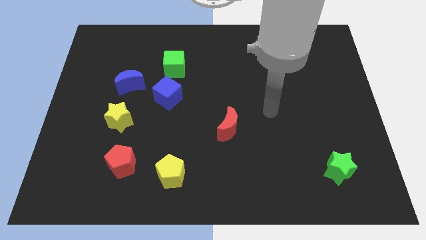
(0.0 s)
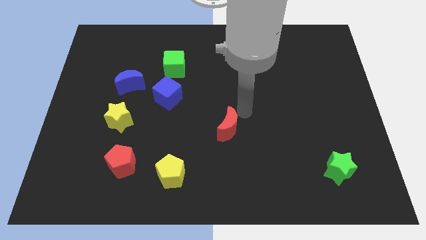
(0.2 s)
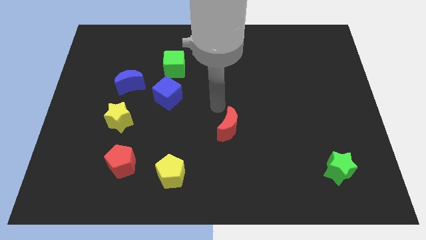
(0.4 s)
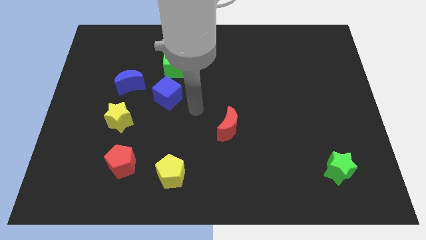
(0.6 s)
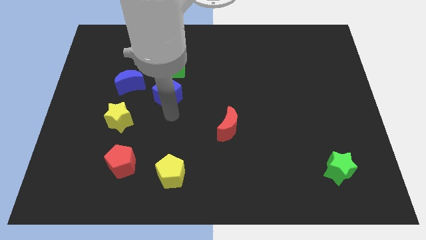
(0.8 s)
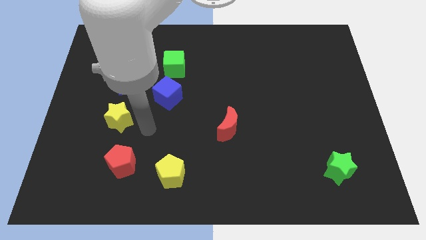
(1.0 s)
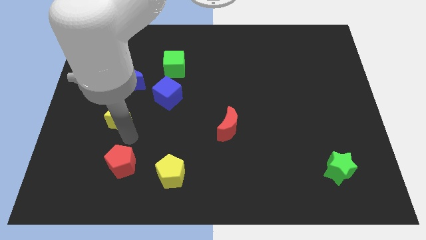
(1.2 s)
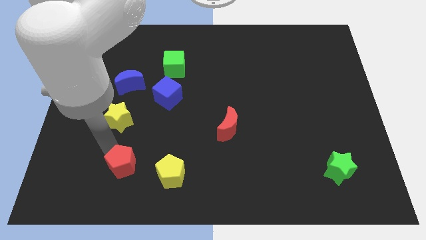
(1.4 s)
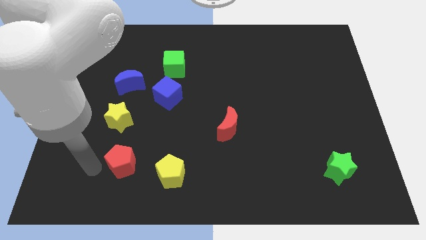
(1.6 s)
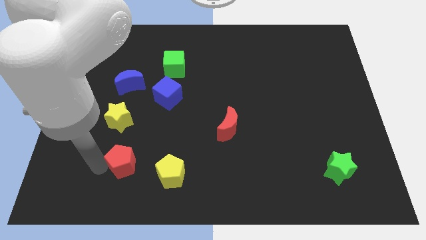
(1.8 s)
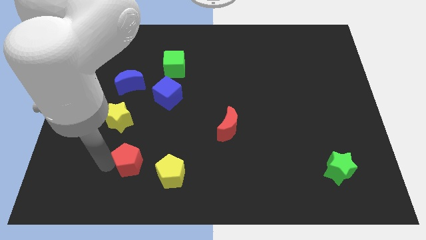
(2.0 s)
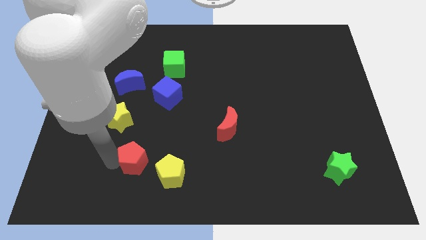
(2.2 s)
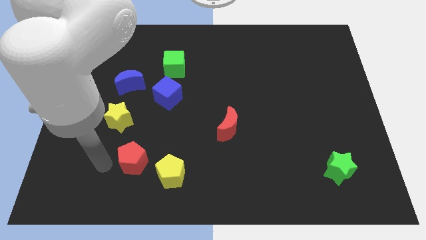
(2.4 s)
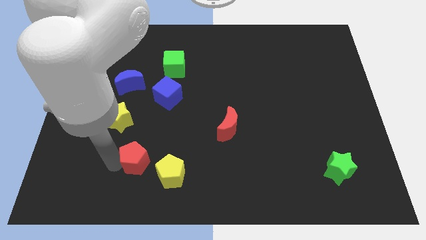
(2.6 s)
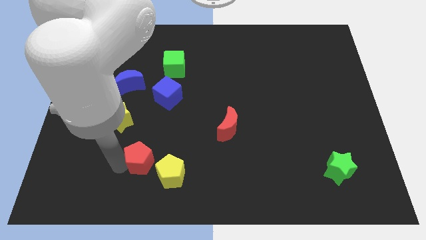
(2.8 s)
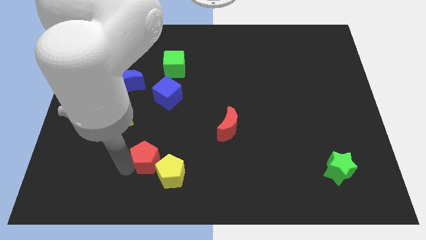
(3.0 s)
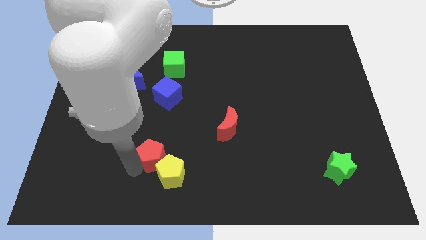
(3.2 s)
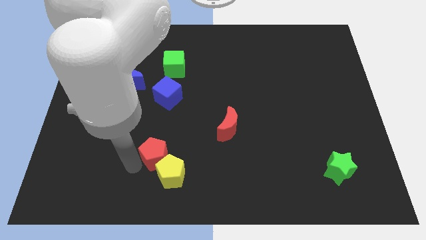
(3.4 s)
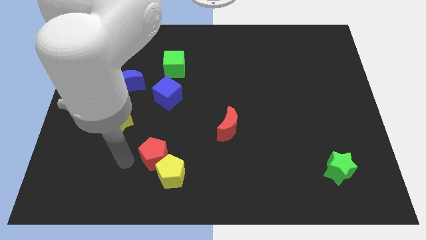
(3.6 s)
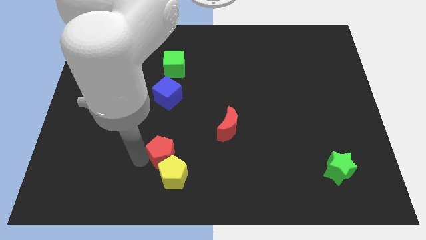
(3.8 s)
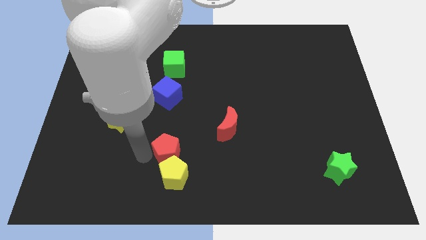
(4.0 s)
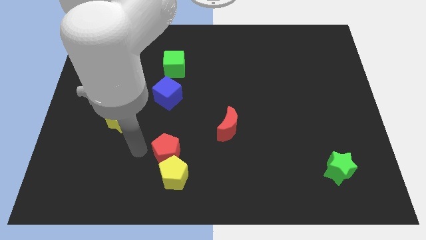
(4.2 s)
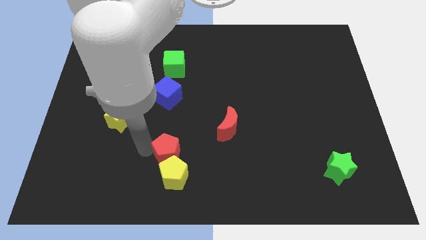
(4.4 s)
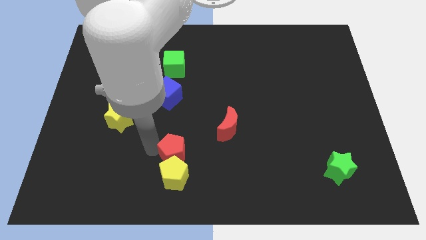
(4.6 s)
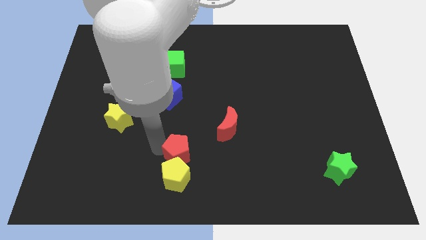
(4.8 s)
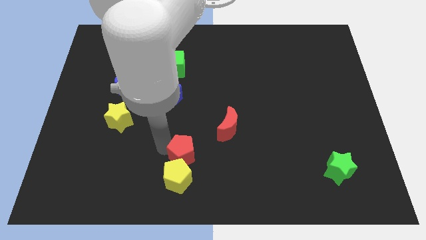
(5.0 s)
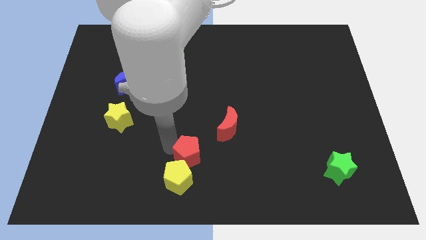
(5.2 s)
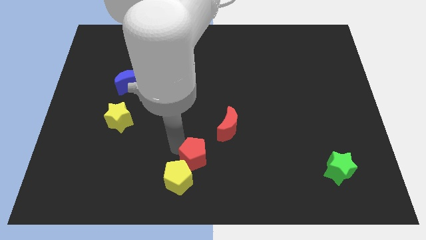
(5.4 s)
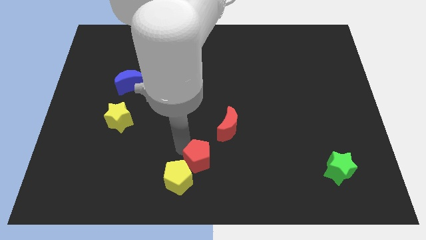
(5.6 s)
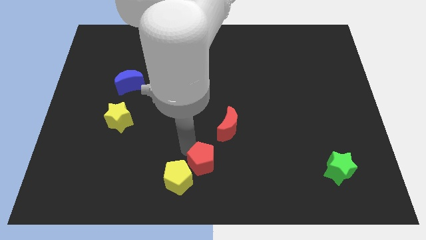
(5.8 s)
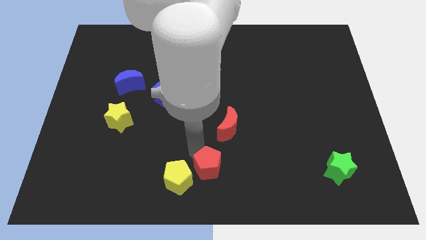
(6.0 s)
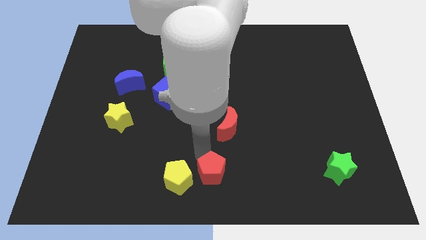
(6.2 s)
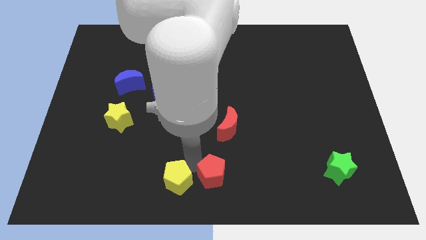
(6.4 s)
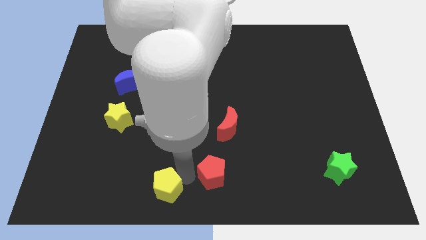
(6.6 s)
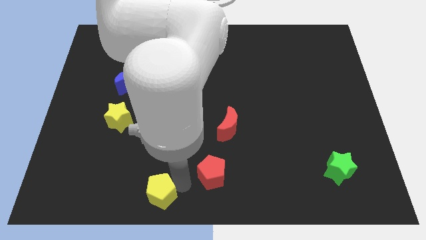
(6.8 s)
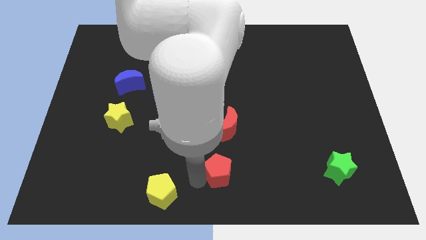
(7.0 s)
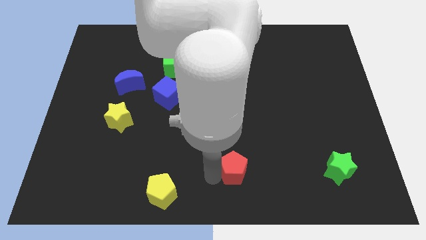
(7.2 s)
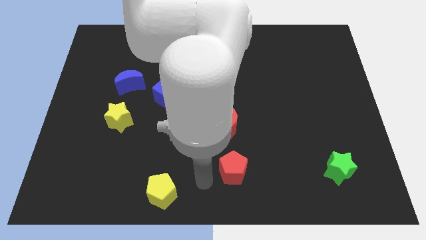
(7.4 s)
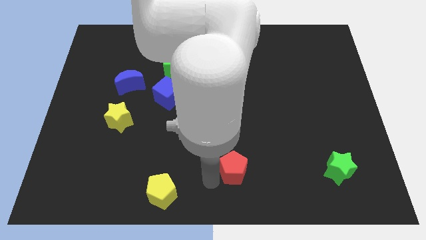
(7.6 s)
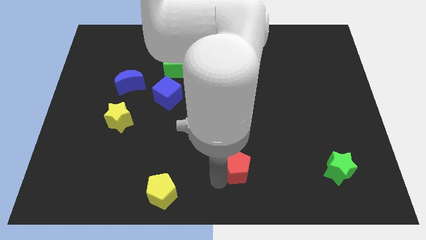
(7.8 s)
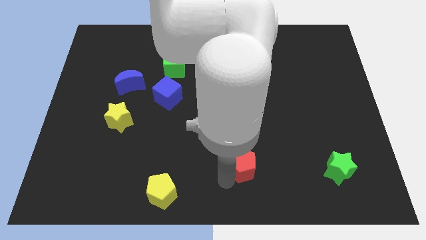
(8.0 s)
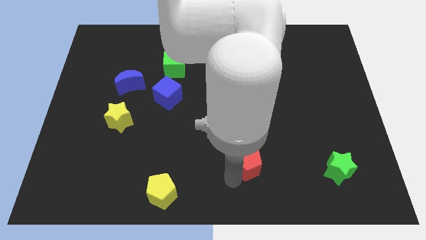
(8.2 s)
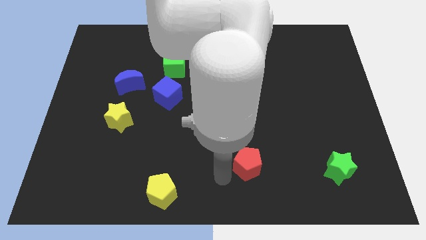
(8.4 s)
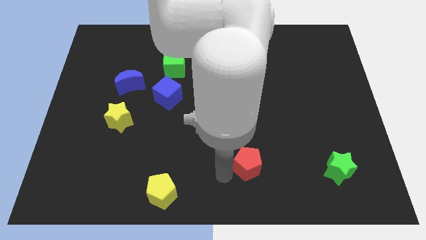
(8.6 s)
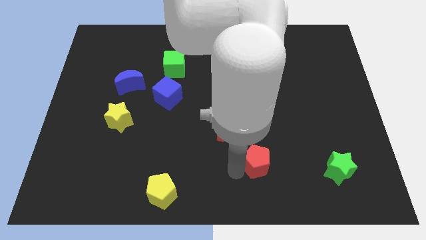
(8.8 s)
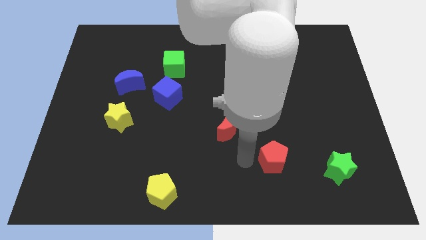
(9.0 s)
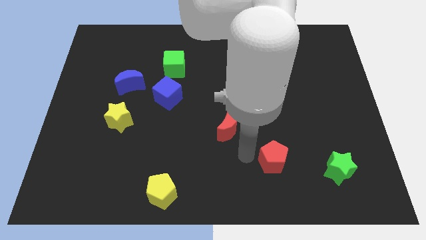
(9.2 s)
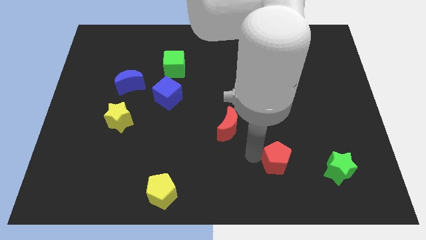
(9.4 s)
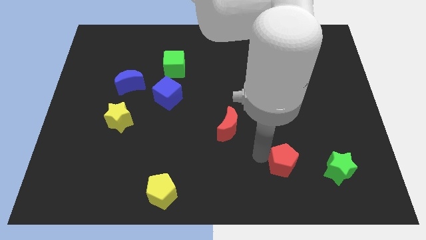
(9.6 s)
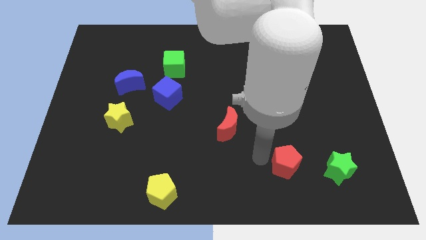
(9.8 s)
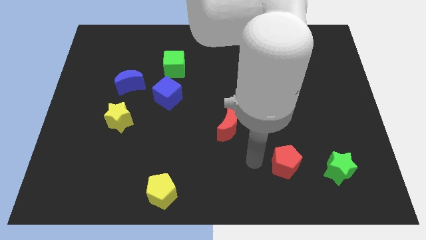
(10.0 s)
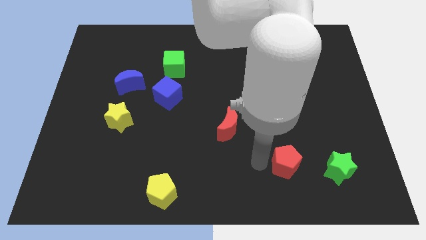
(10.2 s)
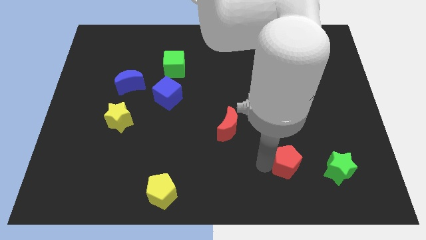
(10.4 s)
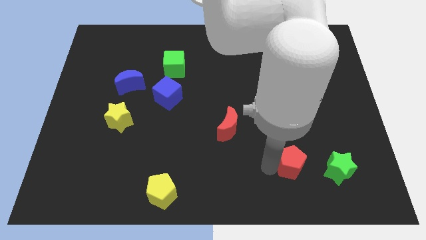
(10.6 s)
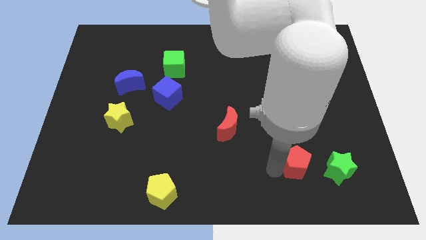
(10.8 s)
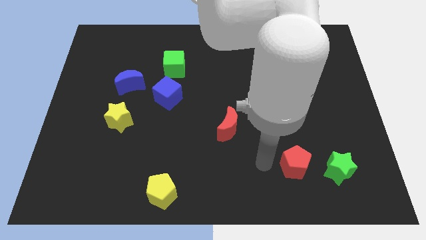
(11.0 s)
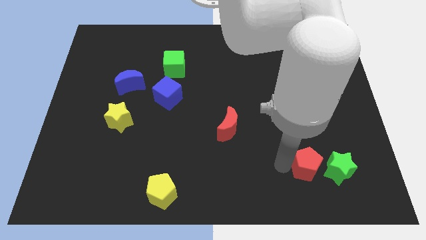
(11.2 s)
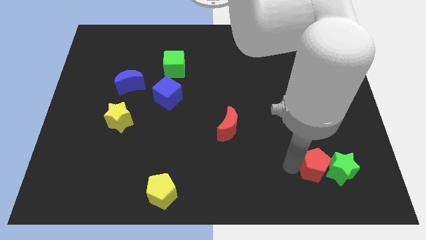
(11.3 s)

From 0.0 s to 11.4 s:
move the red pentagon close to the green star

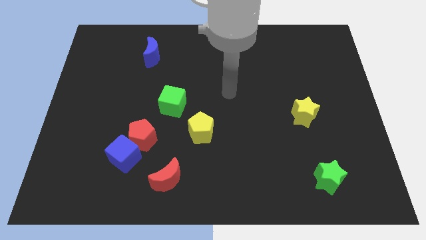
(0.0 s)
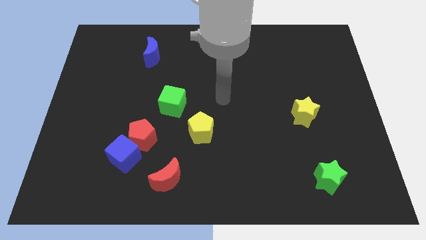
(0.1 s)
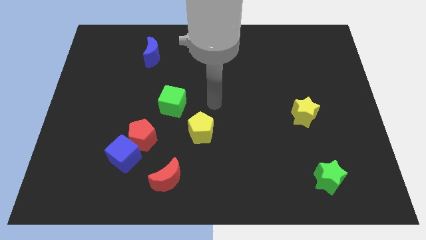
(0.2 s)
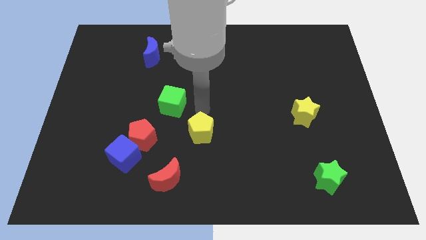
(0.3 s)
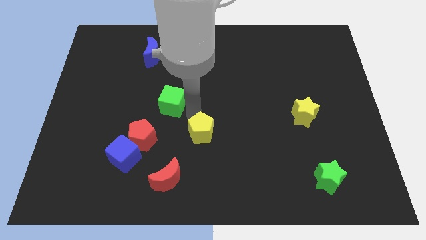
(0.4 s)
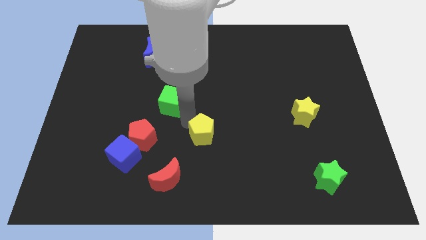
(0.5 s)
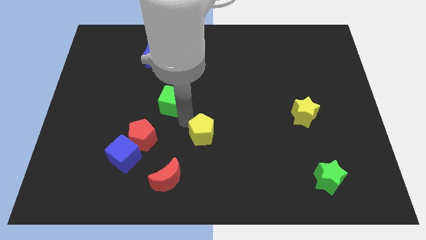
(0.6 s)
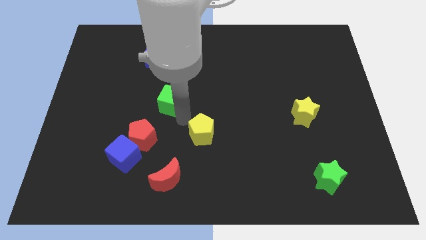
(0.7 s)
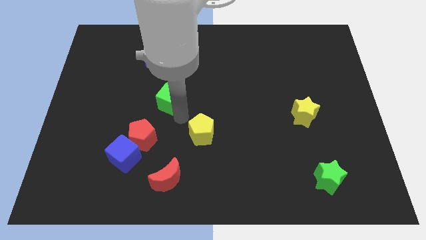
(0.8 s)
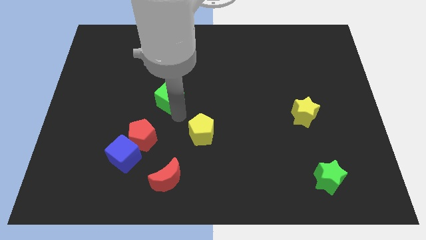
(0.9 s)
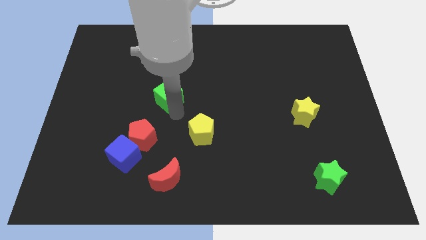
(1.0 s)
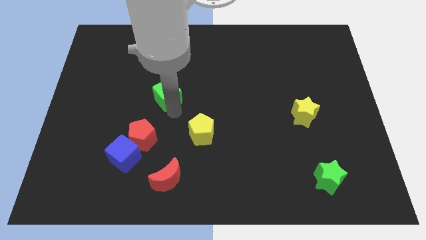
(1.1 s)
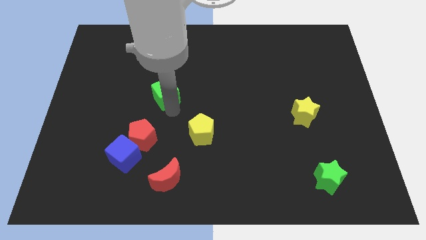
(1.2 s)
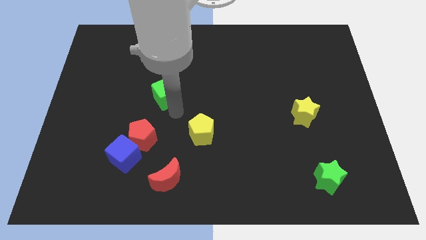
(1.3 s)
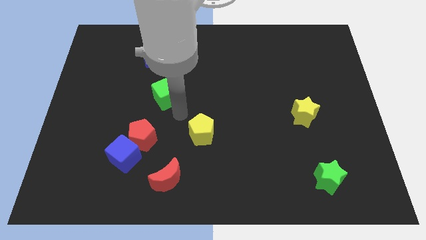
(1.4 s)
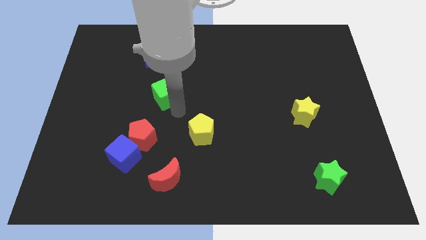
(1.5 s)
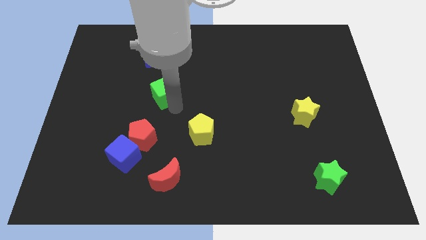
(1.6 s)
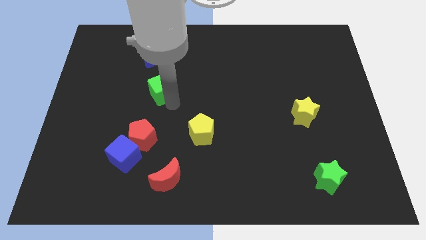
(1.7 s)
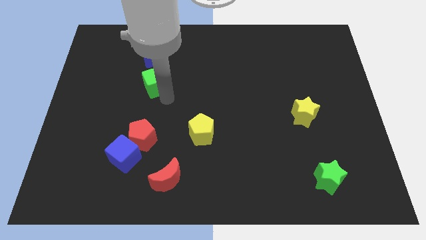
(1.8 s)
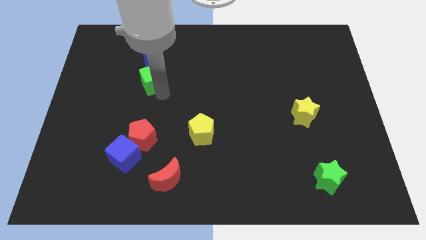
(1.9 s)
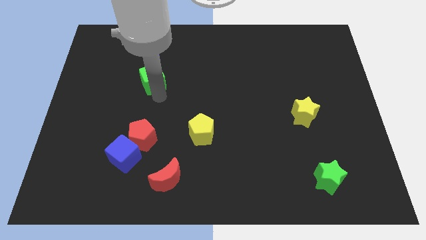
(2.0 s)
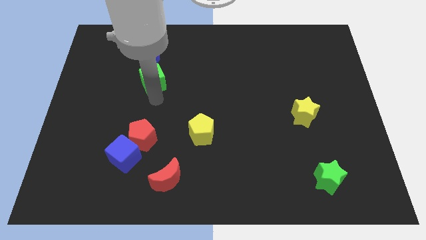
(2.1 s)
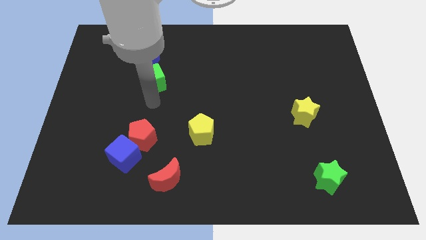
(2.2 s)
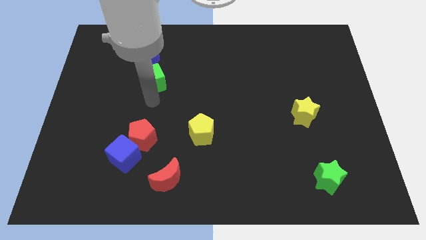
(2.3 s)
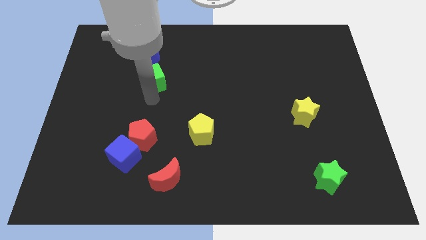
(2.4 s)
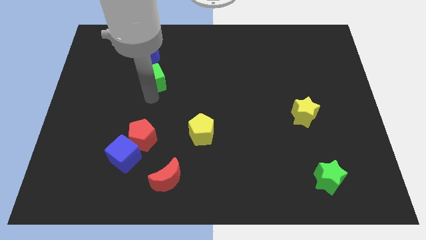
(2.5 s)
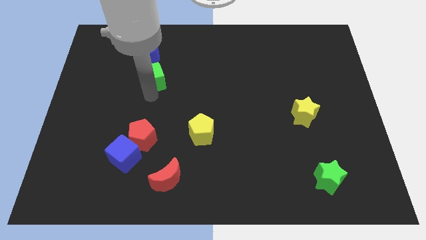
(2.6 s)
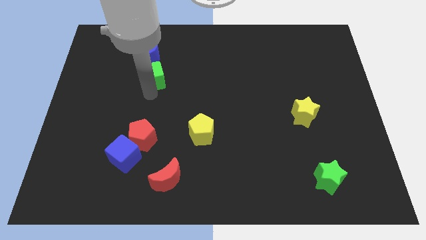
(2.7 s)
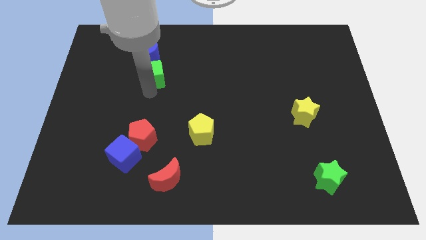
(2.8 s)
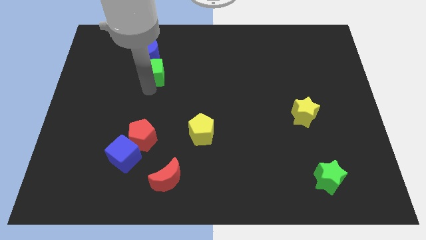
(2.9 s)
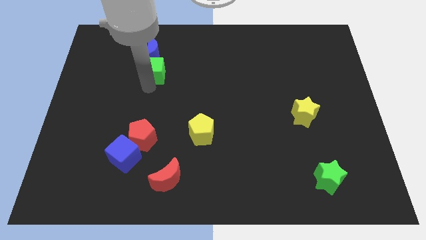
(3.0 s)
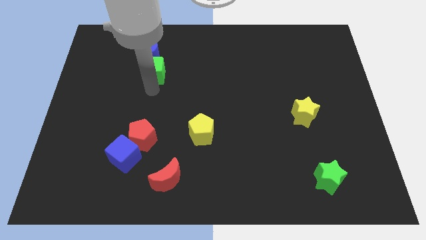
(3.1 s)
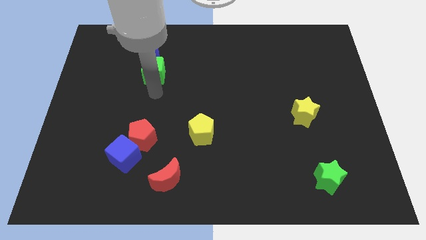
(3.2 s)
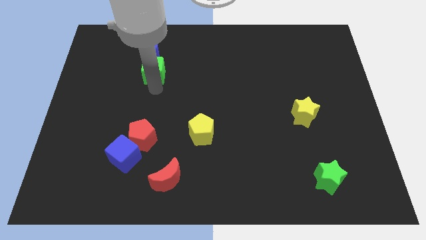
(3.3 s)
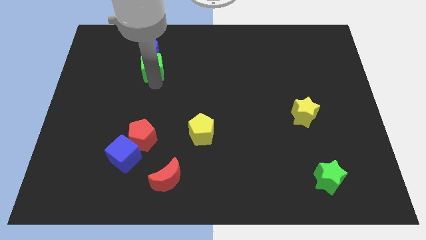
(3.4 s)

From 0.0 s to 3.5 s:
push the green cube towards the blue moon
